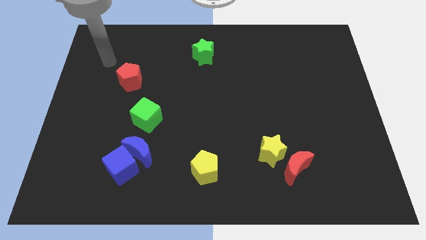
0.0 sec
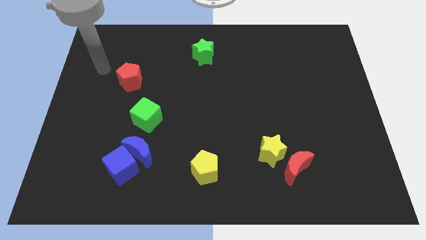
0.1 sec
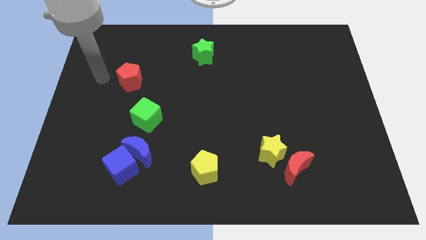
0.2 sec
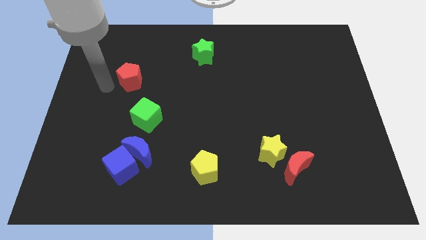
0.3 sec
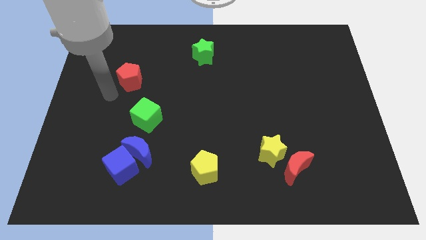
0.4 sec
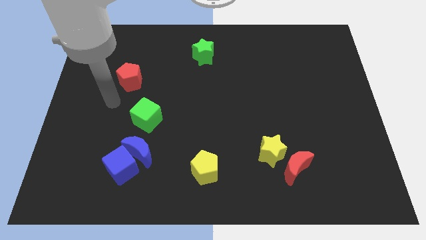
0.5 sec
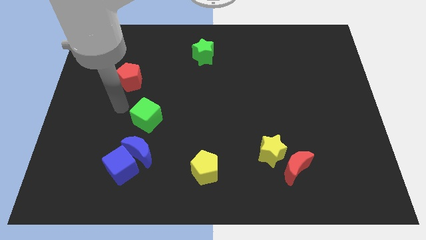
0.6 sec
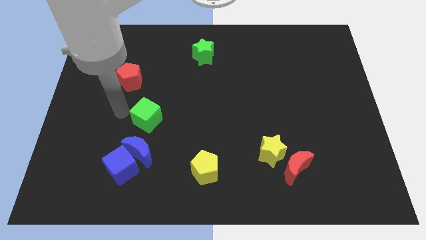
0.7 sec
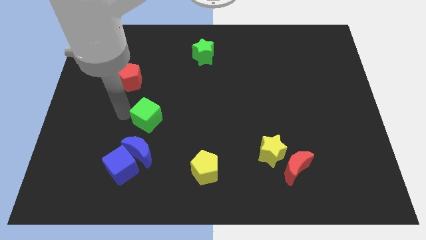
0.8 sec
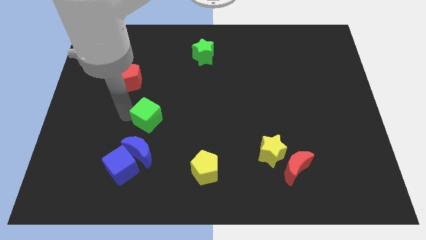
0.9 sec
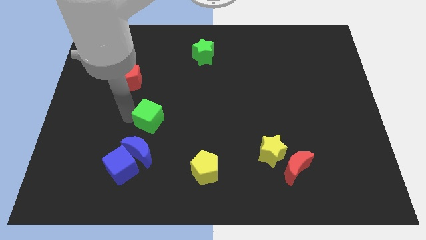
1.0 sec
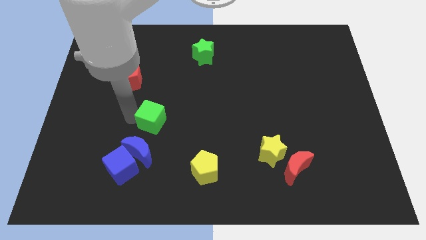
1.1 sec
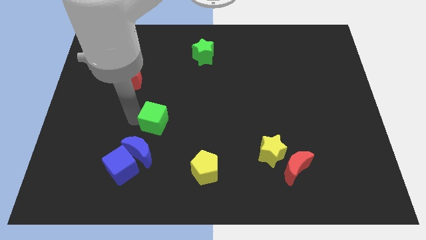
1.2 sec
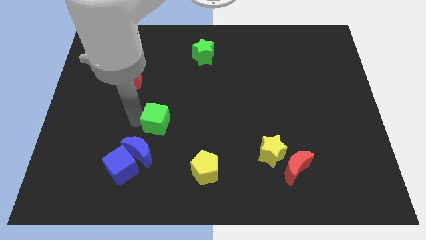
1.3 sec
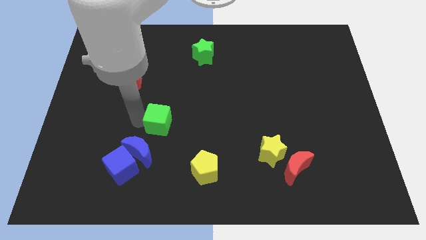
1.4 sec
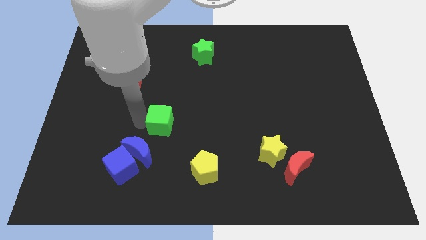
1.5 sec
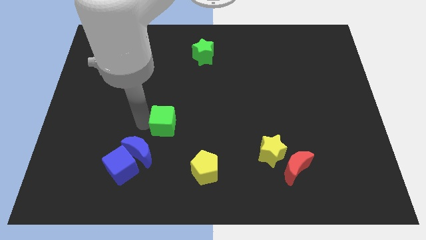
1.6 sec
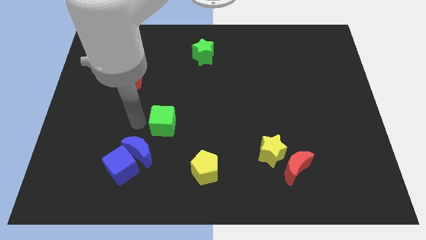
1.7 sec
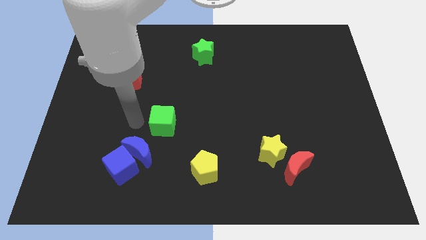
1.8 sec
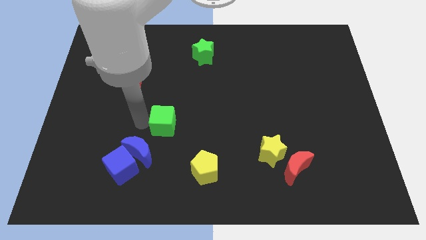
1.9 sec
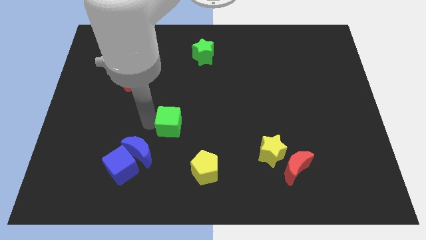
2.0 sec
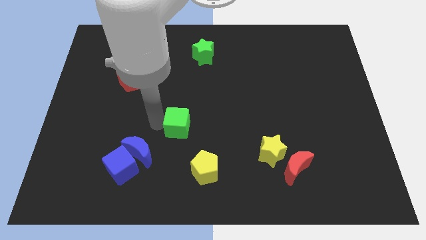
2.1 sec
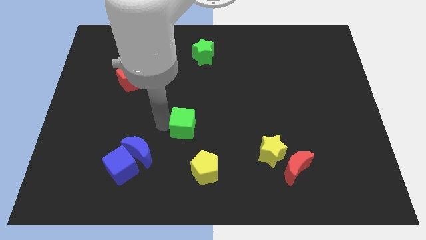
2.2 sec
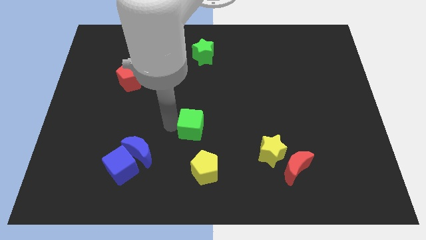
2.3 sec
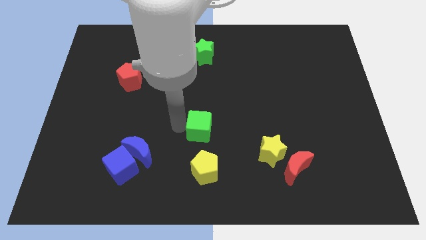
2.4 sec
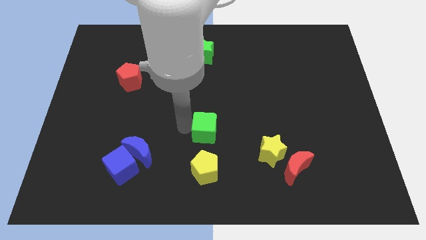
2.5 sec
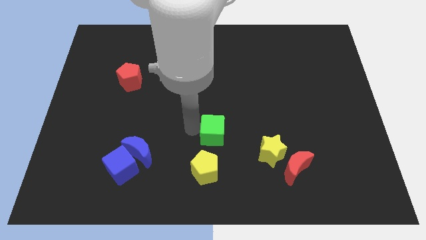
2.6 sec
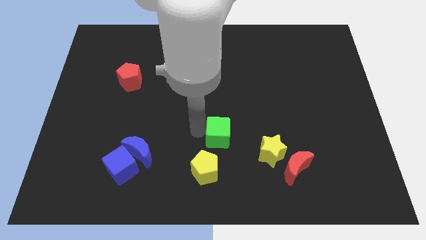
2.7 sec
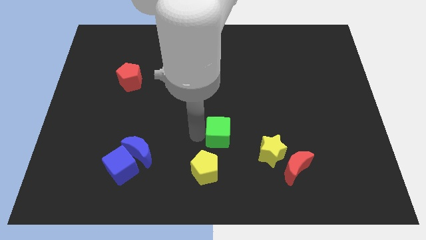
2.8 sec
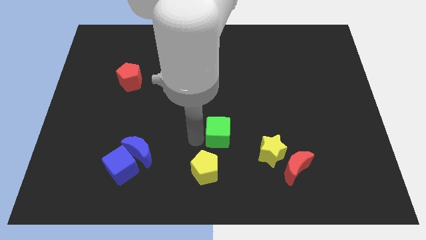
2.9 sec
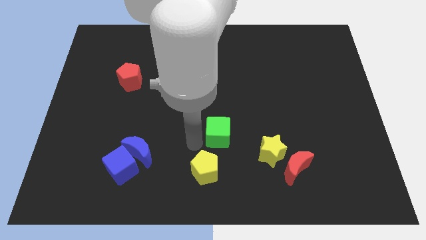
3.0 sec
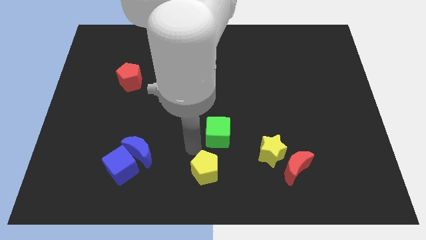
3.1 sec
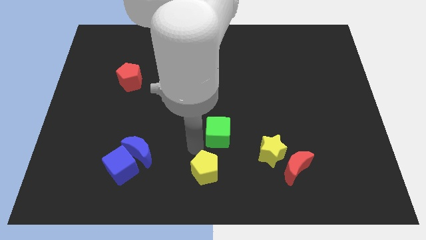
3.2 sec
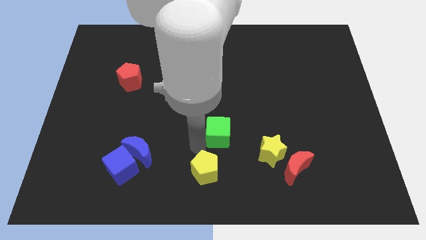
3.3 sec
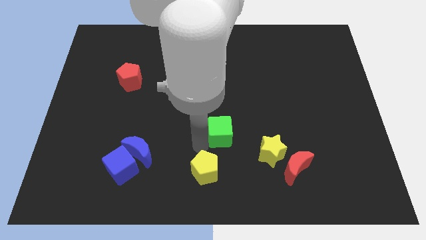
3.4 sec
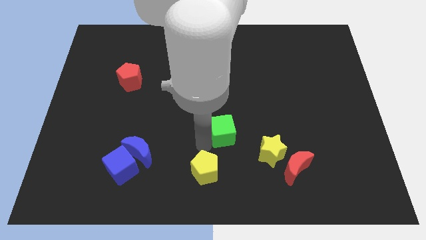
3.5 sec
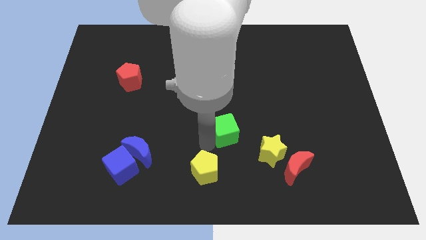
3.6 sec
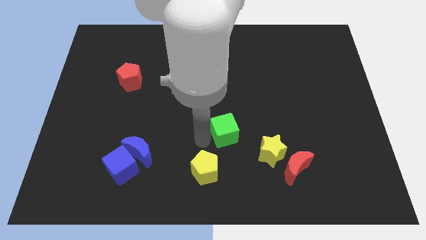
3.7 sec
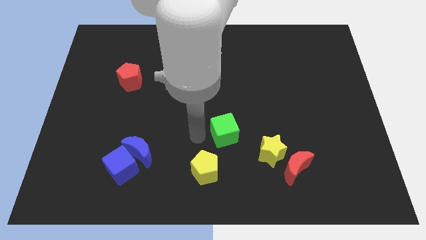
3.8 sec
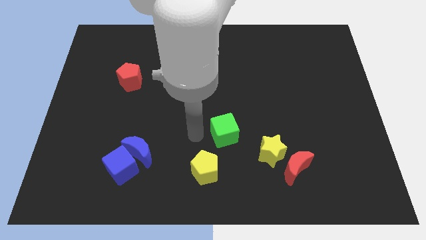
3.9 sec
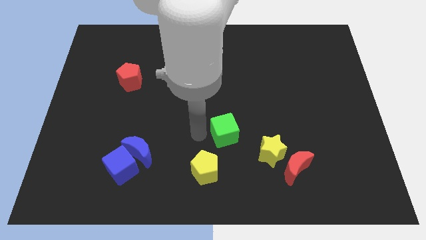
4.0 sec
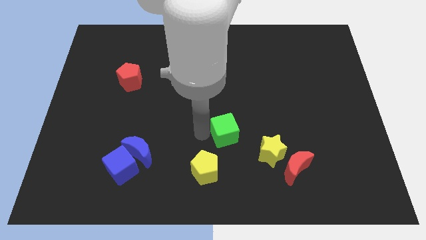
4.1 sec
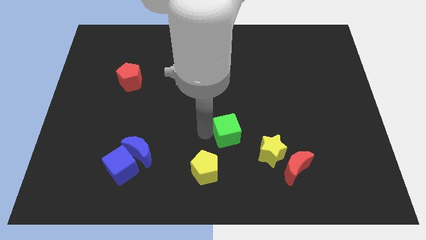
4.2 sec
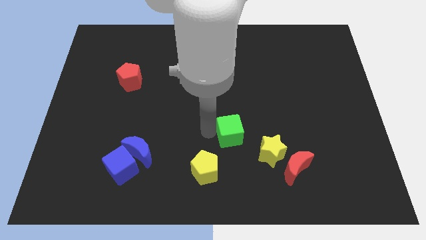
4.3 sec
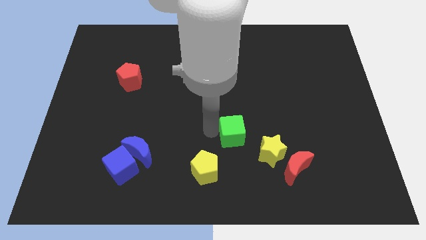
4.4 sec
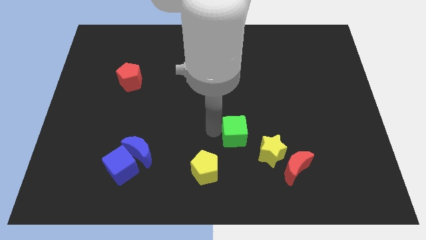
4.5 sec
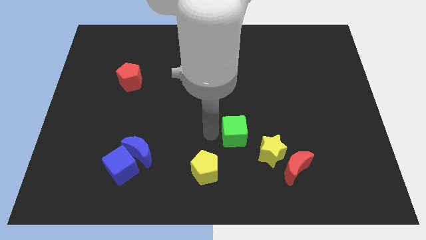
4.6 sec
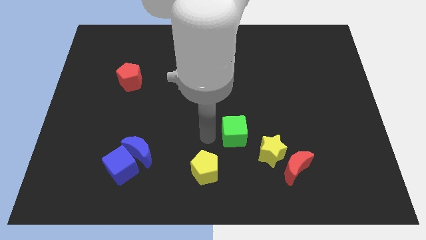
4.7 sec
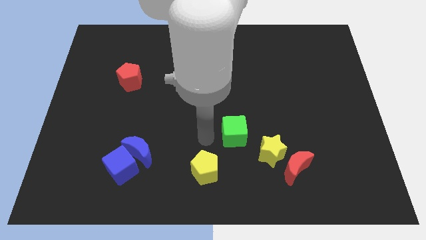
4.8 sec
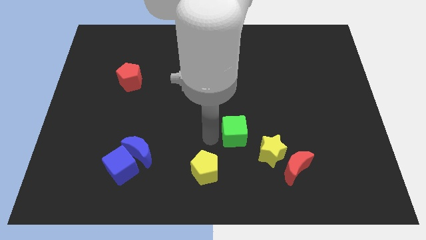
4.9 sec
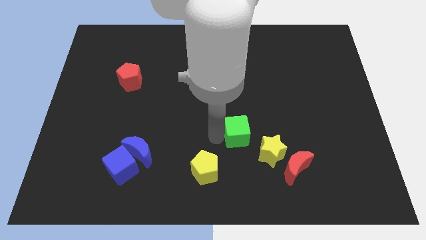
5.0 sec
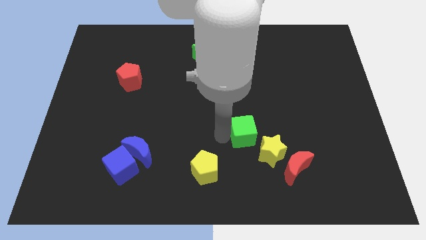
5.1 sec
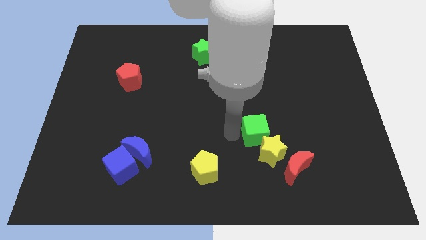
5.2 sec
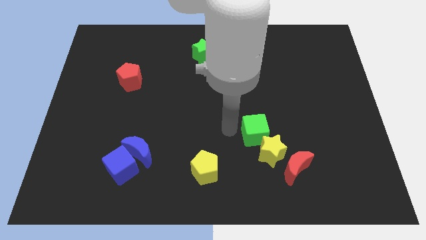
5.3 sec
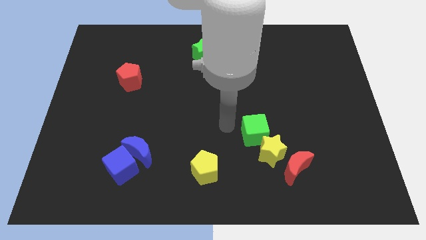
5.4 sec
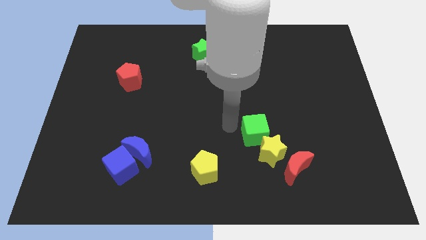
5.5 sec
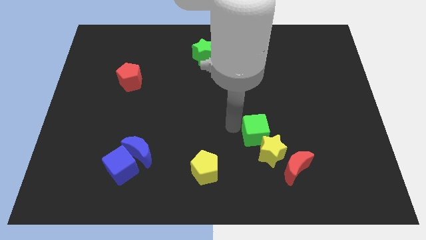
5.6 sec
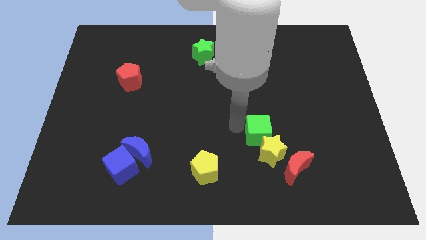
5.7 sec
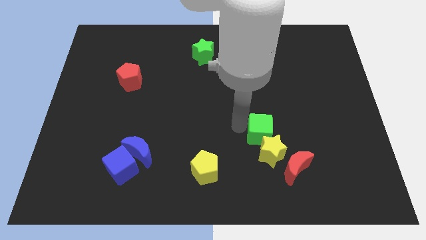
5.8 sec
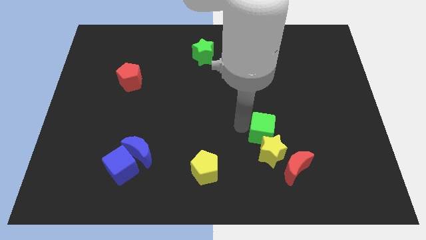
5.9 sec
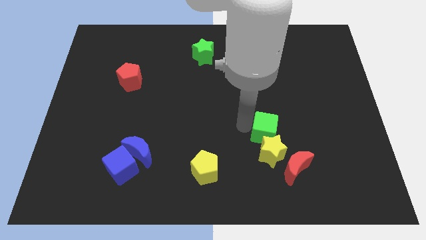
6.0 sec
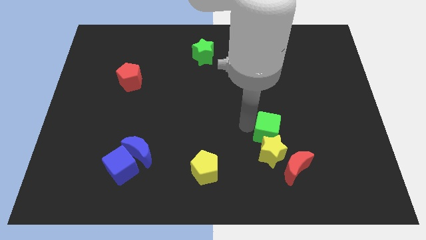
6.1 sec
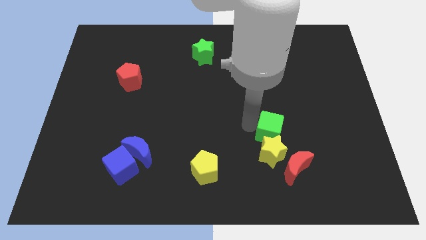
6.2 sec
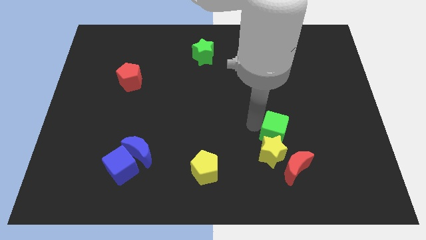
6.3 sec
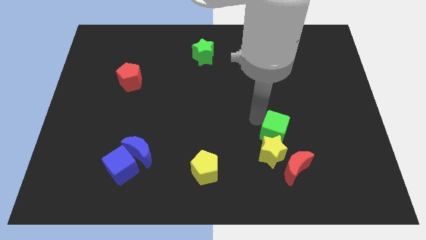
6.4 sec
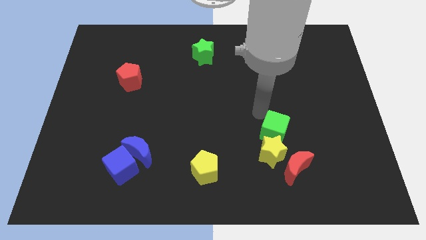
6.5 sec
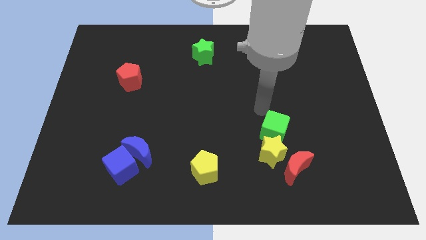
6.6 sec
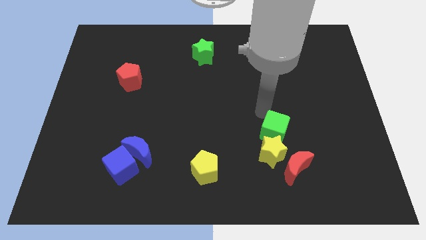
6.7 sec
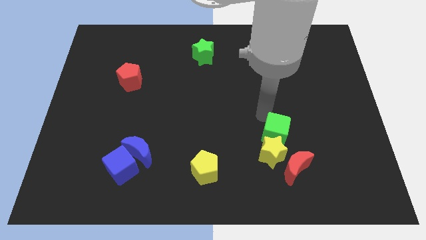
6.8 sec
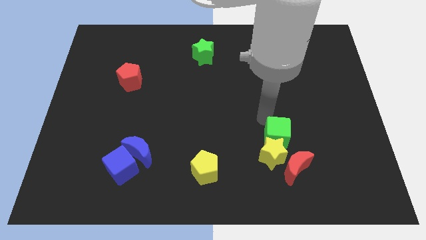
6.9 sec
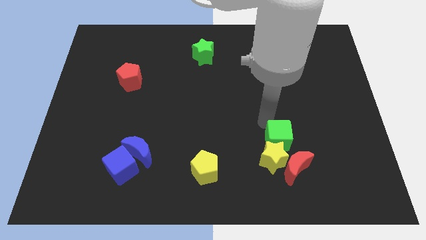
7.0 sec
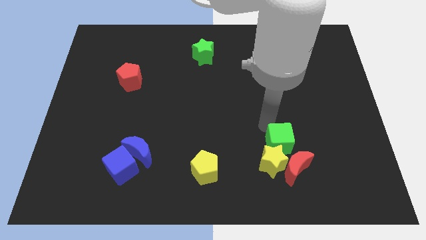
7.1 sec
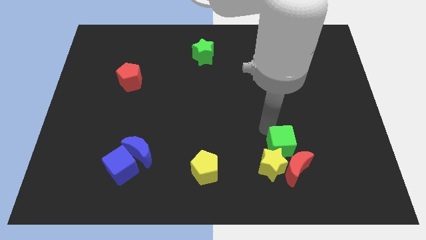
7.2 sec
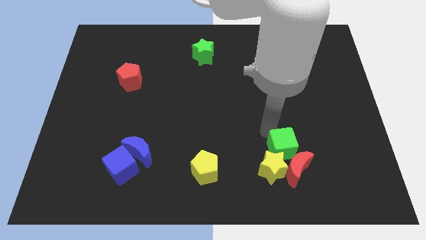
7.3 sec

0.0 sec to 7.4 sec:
push the green cube next to the red moon

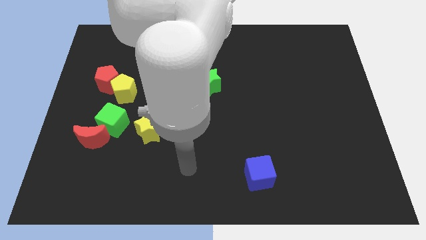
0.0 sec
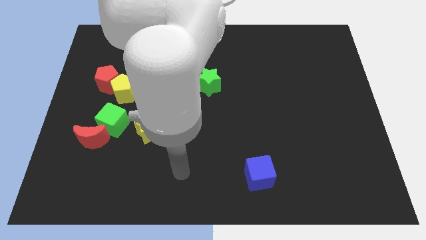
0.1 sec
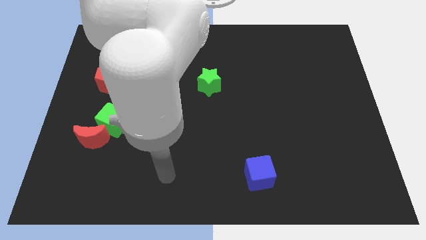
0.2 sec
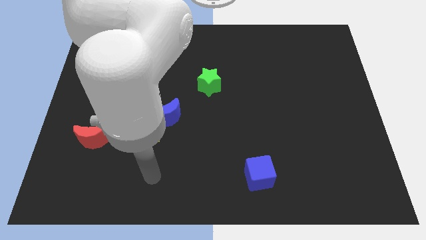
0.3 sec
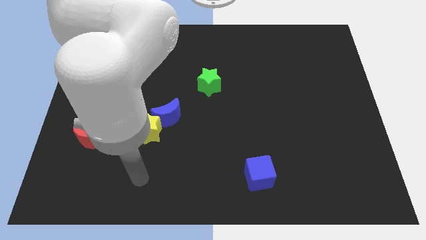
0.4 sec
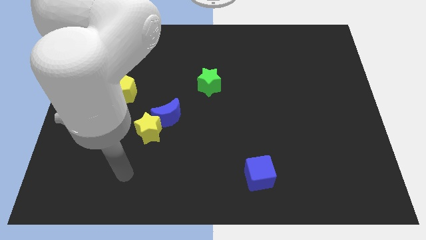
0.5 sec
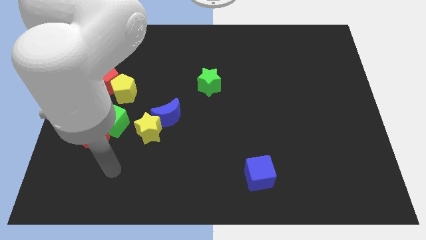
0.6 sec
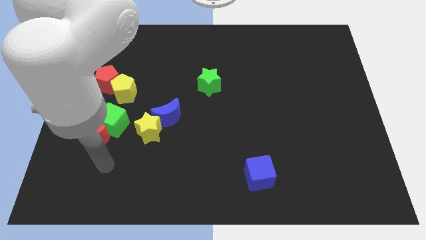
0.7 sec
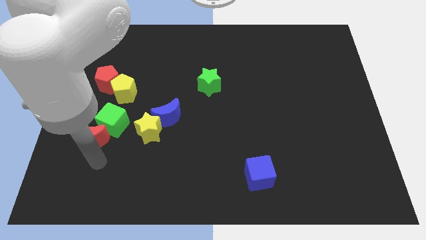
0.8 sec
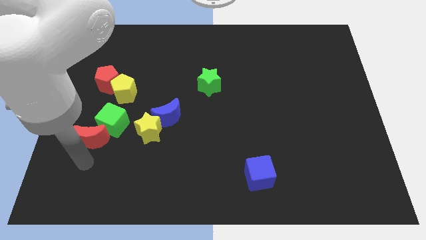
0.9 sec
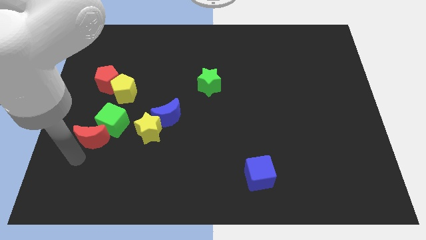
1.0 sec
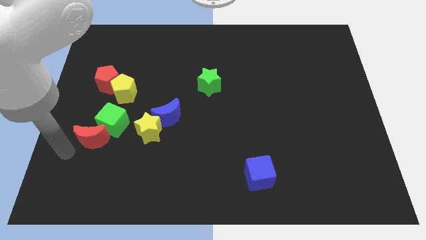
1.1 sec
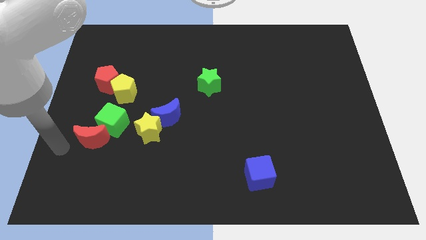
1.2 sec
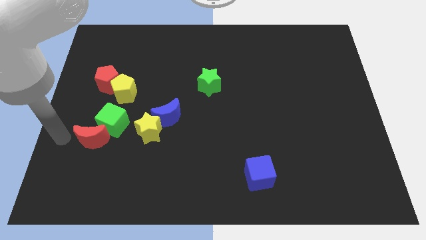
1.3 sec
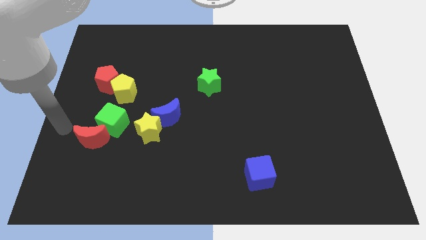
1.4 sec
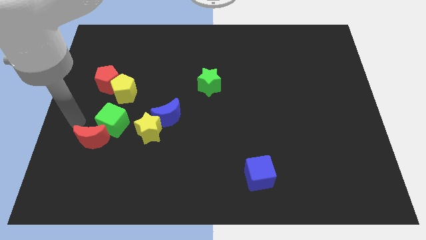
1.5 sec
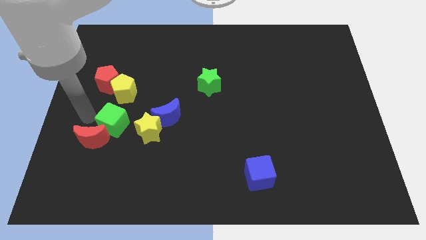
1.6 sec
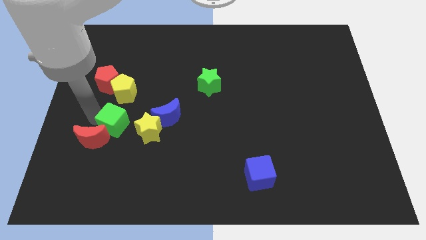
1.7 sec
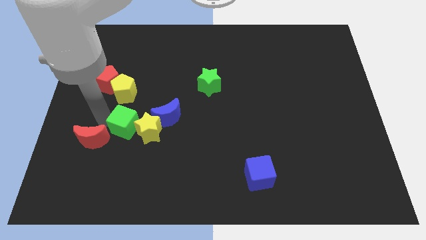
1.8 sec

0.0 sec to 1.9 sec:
move the green cube next to the yellow star
